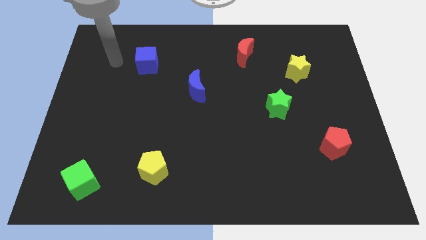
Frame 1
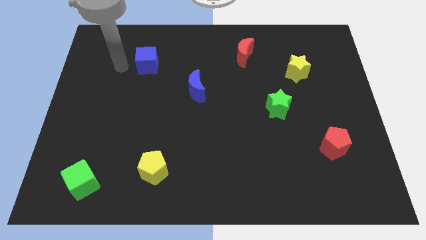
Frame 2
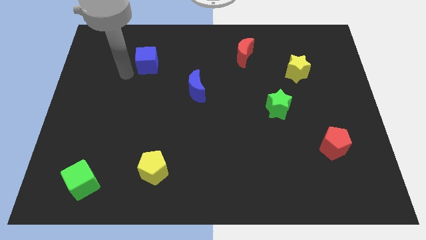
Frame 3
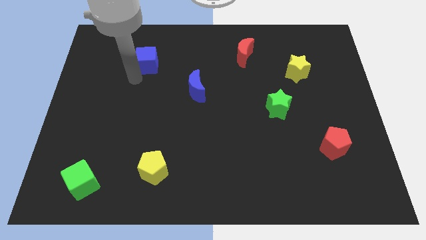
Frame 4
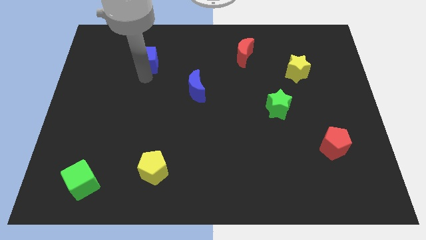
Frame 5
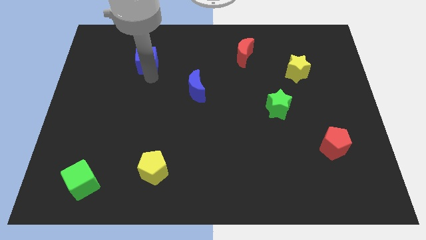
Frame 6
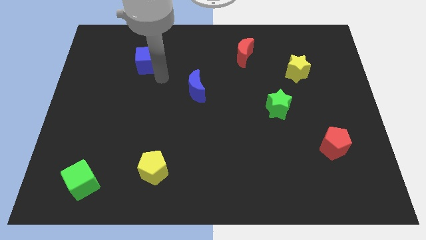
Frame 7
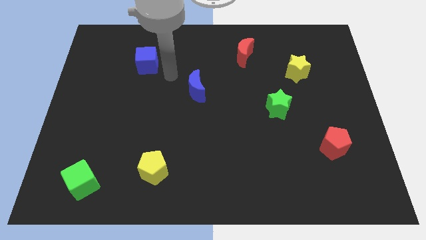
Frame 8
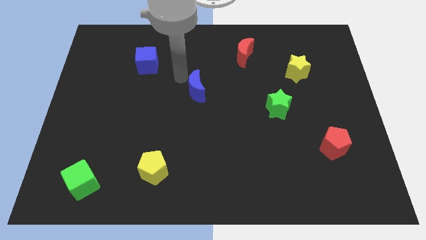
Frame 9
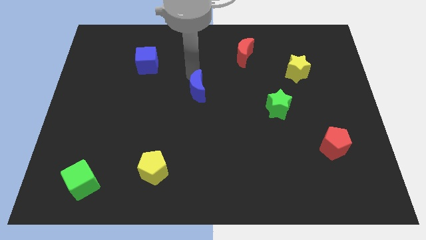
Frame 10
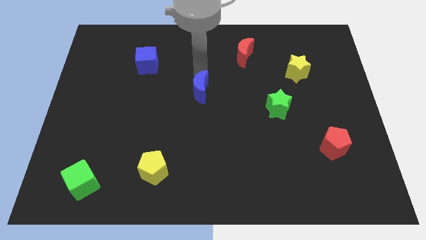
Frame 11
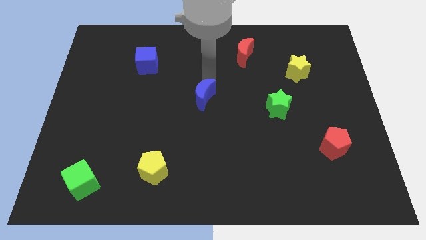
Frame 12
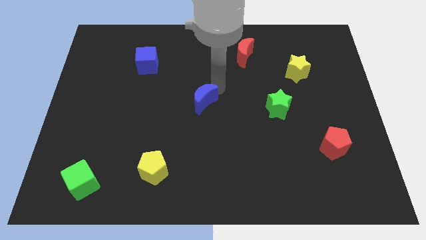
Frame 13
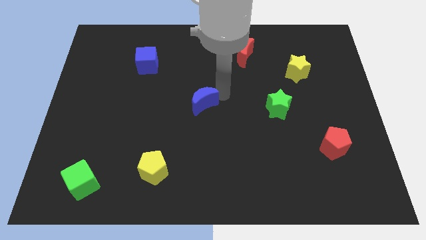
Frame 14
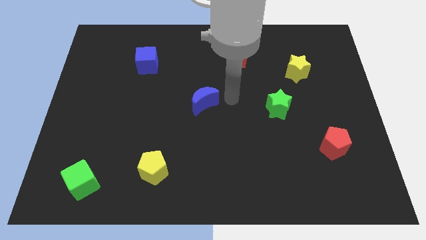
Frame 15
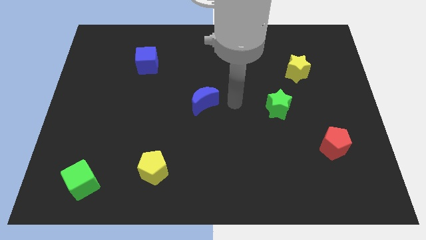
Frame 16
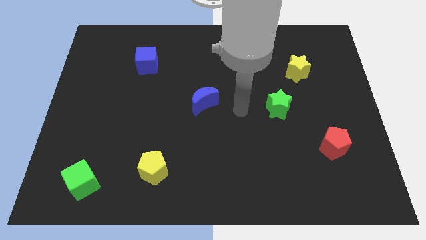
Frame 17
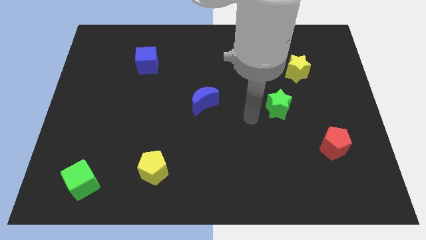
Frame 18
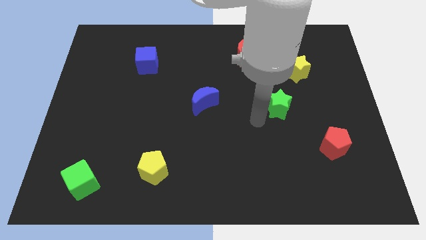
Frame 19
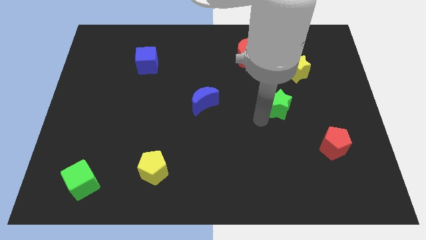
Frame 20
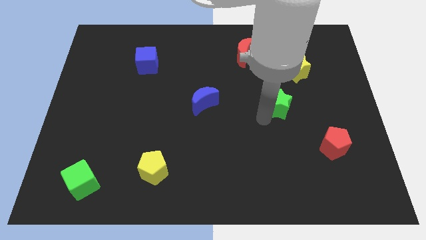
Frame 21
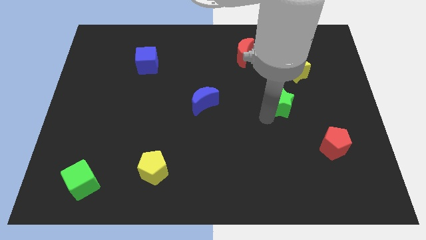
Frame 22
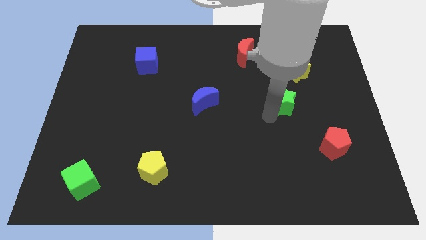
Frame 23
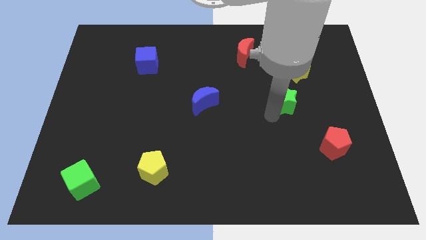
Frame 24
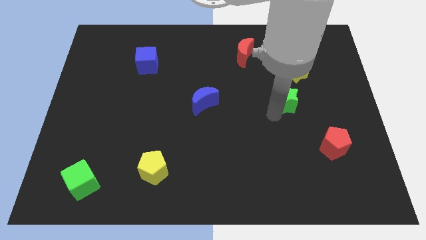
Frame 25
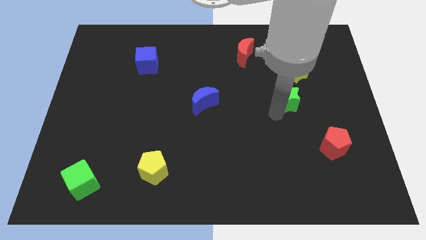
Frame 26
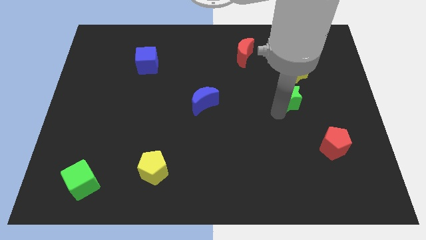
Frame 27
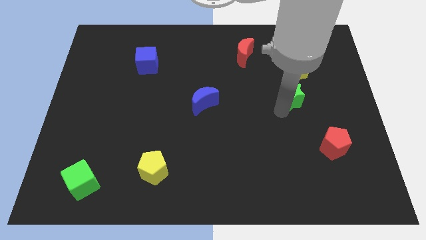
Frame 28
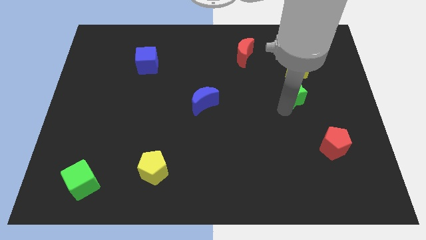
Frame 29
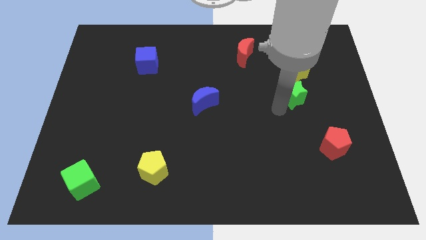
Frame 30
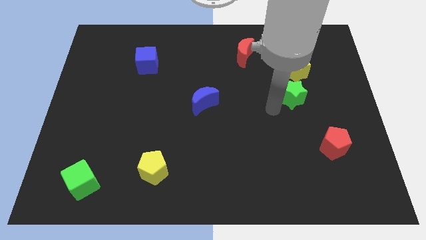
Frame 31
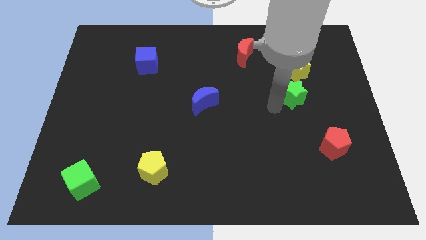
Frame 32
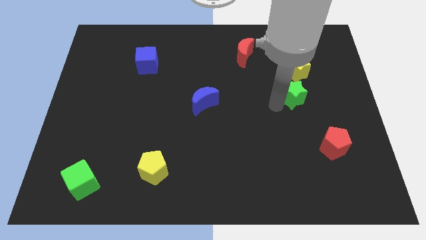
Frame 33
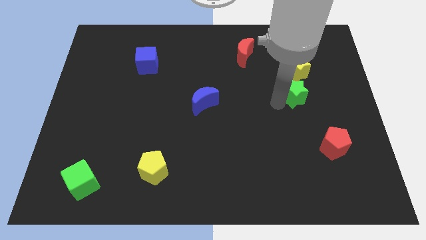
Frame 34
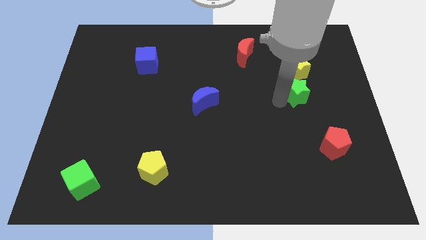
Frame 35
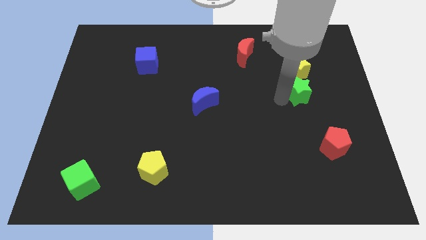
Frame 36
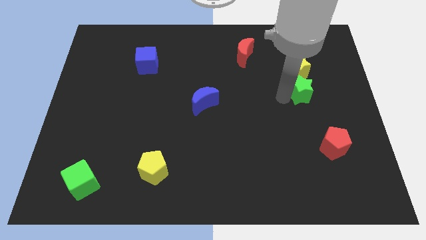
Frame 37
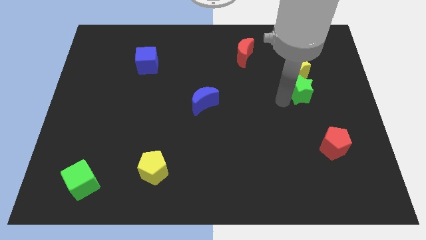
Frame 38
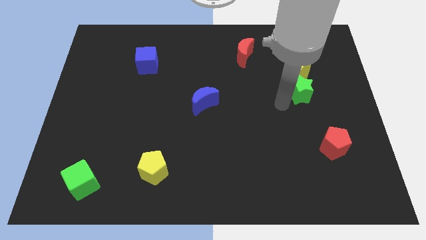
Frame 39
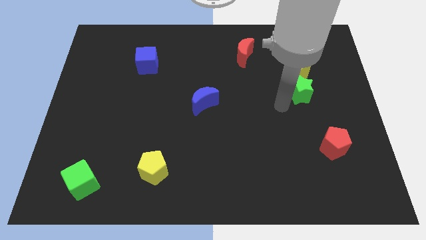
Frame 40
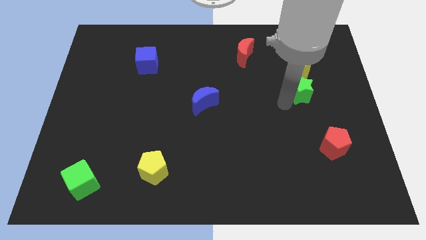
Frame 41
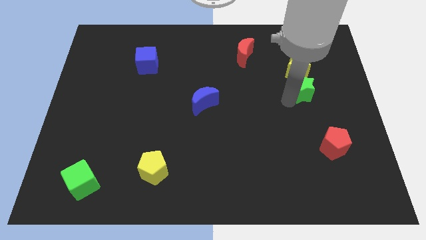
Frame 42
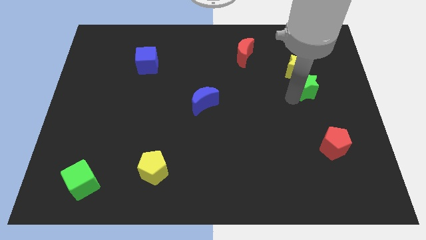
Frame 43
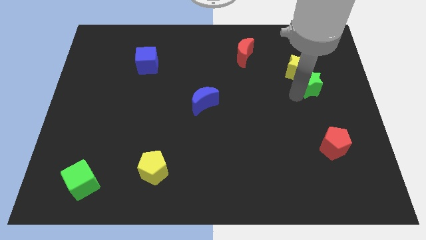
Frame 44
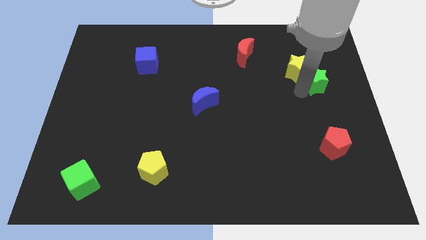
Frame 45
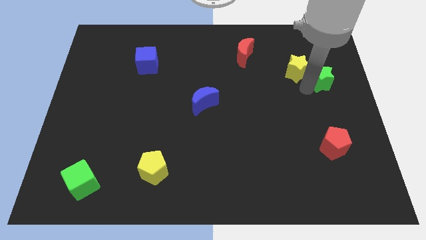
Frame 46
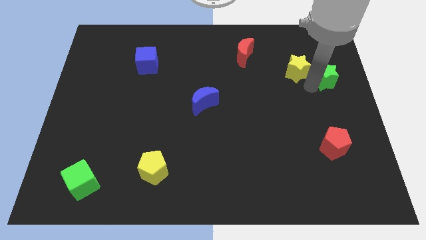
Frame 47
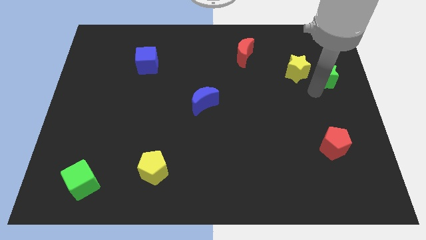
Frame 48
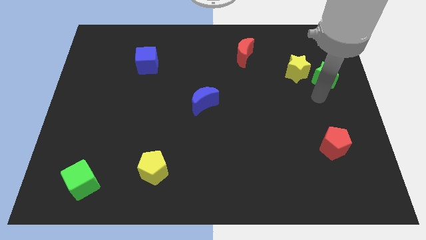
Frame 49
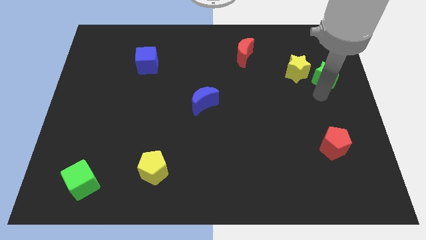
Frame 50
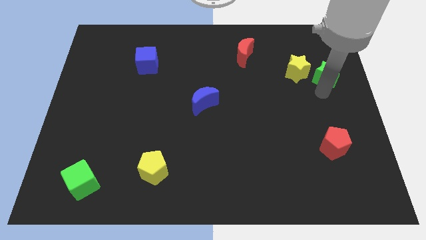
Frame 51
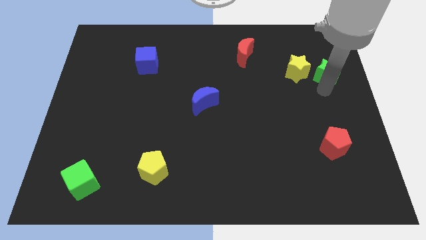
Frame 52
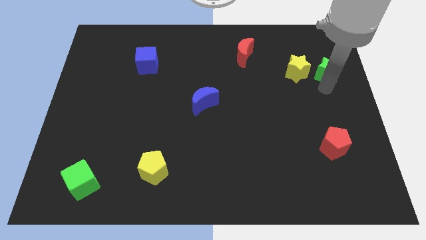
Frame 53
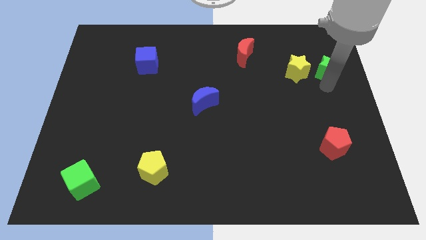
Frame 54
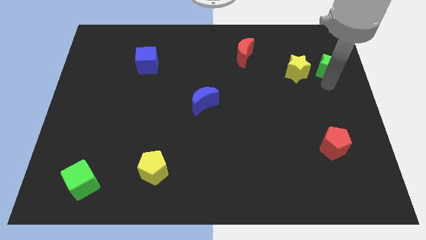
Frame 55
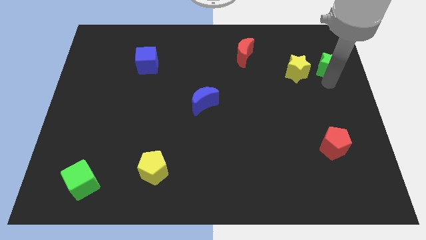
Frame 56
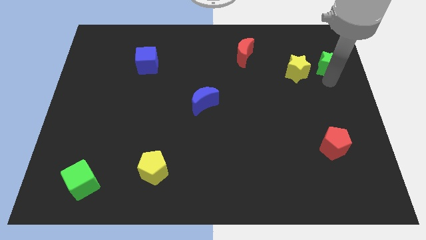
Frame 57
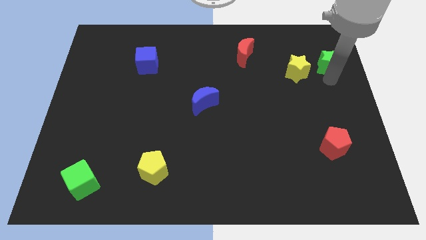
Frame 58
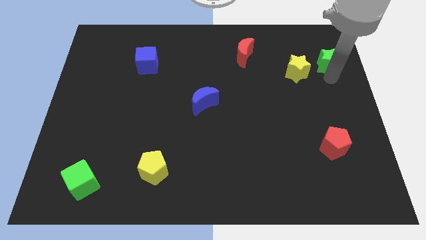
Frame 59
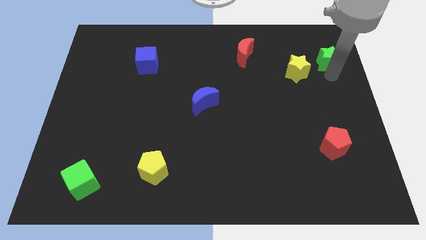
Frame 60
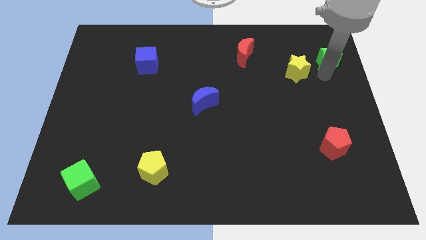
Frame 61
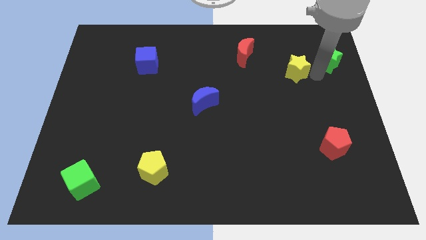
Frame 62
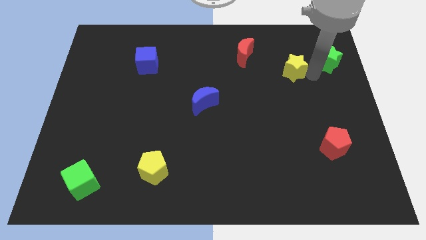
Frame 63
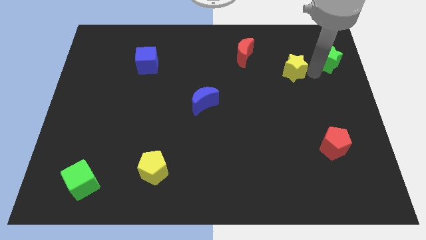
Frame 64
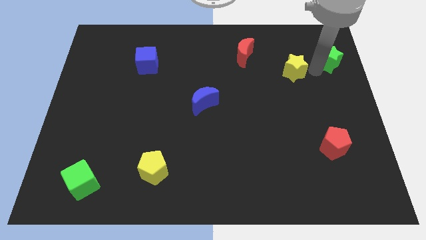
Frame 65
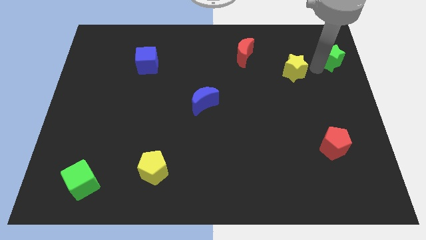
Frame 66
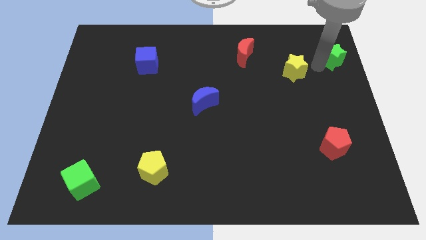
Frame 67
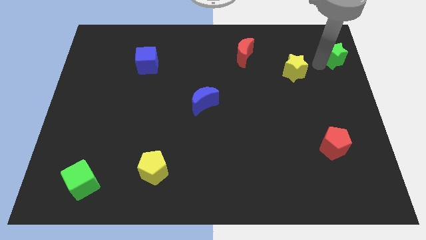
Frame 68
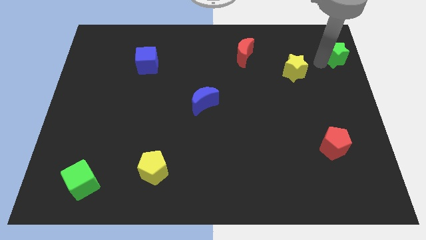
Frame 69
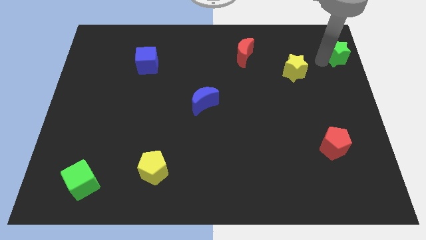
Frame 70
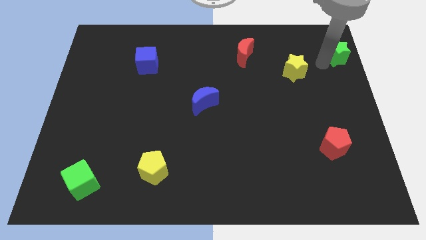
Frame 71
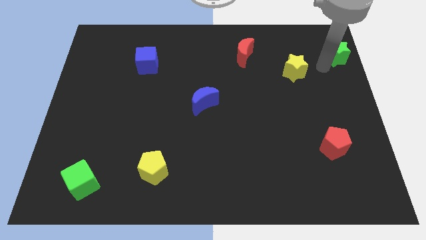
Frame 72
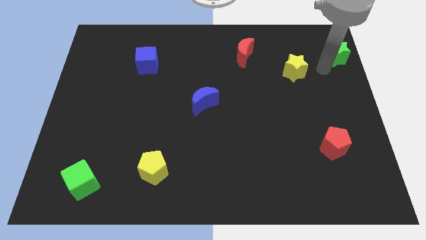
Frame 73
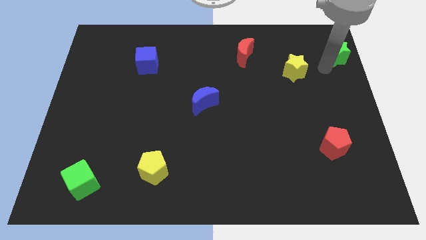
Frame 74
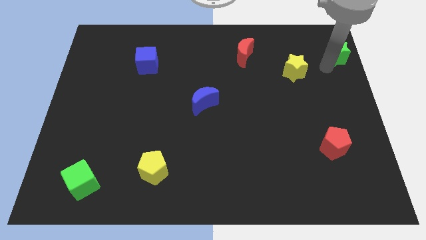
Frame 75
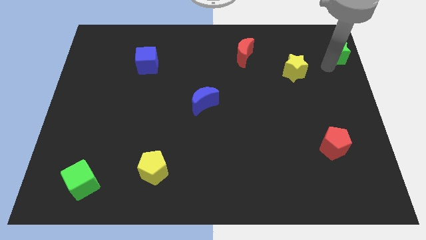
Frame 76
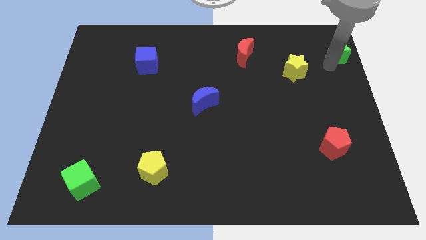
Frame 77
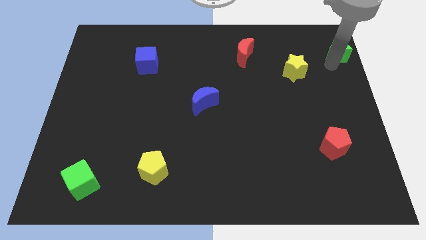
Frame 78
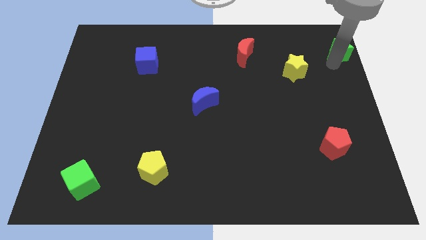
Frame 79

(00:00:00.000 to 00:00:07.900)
put the green star to the top right of the board
